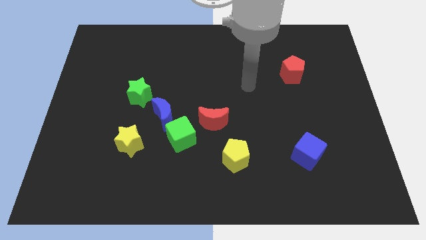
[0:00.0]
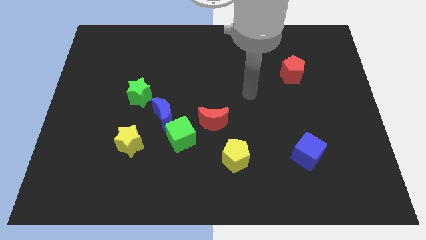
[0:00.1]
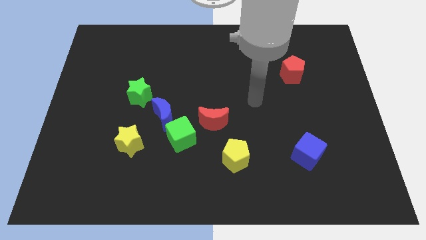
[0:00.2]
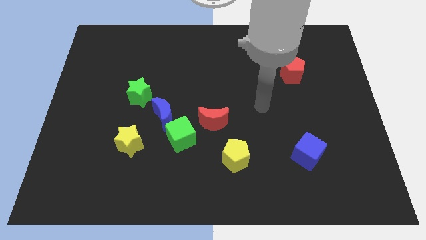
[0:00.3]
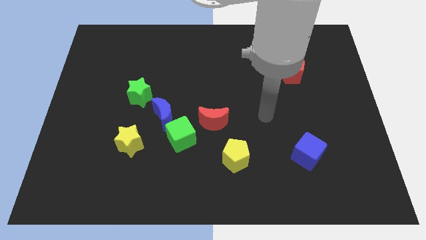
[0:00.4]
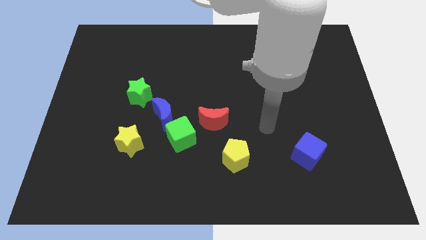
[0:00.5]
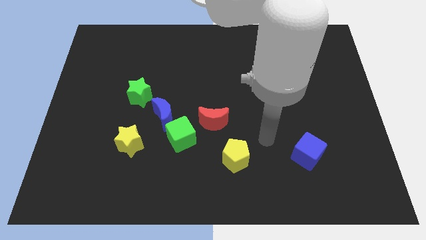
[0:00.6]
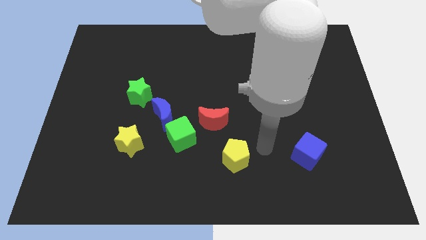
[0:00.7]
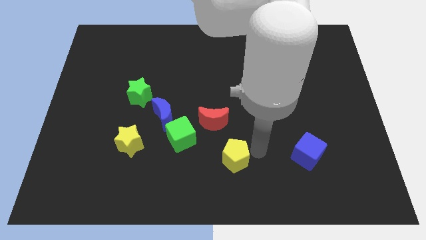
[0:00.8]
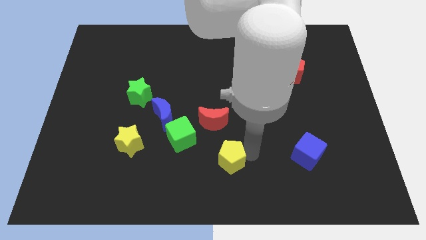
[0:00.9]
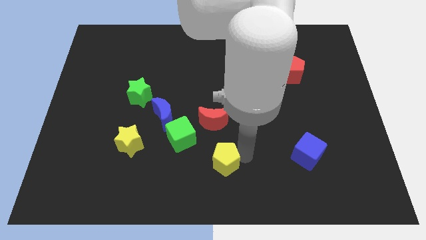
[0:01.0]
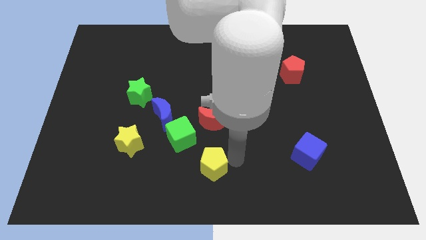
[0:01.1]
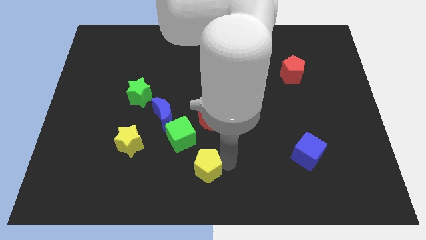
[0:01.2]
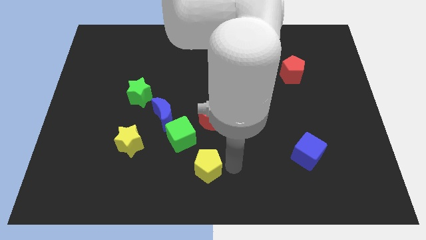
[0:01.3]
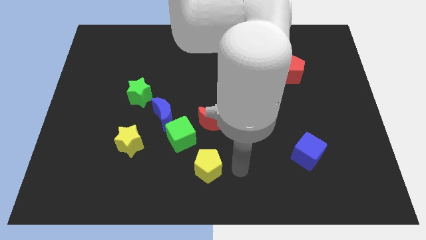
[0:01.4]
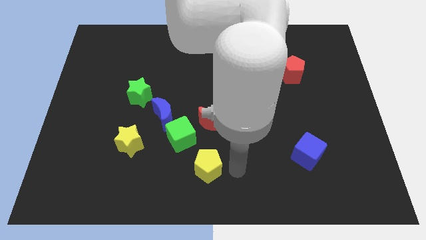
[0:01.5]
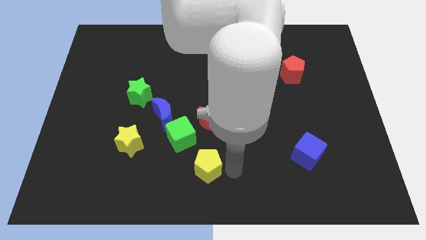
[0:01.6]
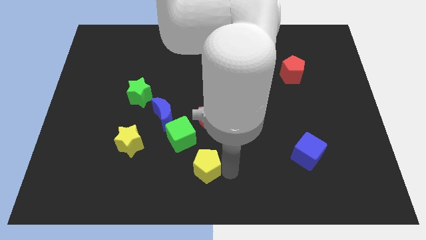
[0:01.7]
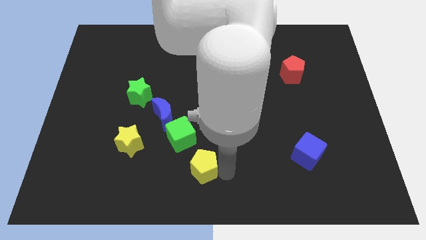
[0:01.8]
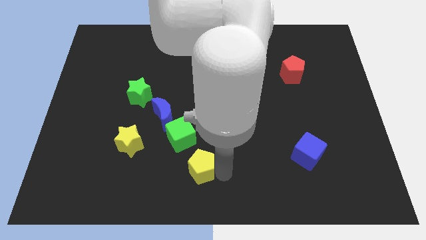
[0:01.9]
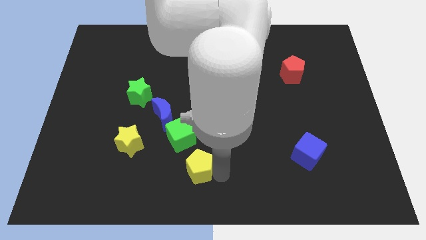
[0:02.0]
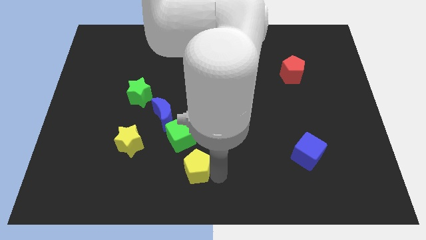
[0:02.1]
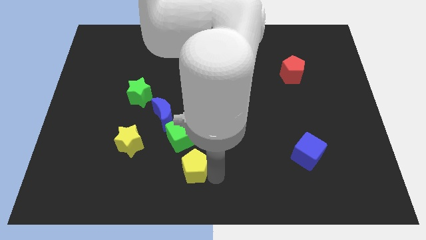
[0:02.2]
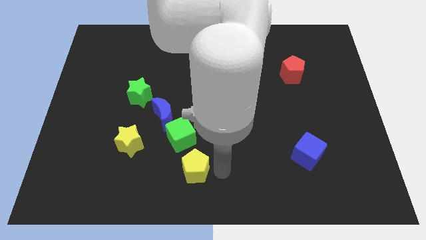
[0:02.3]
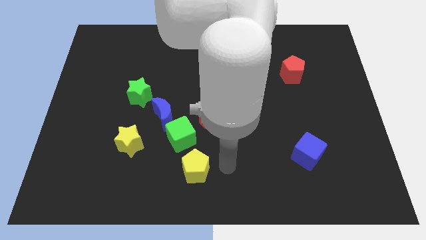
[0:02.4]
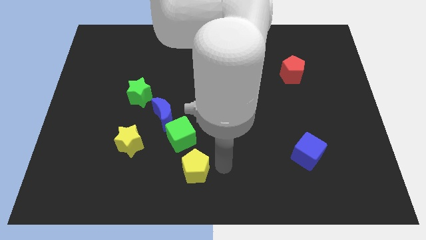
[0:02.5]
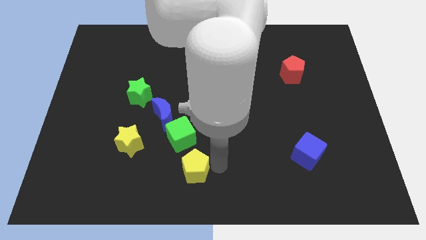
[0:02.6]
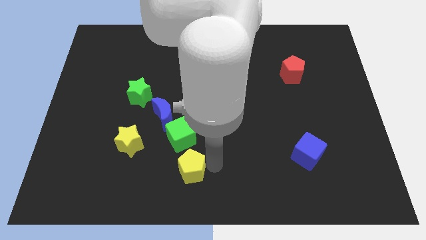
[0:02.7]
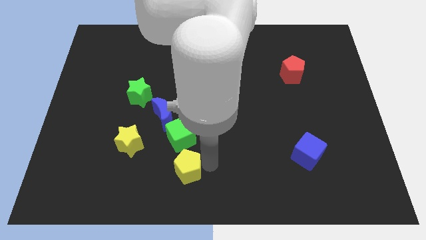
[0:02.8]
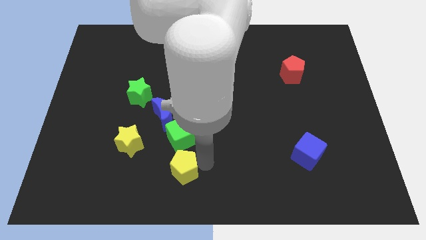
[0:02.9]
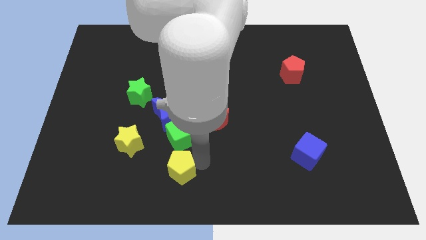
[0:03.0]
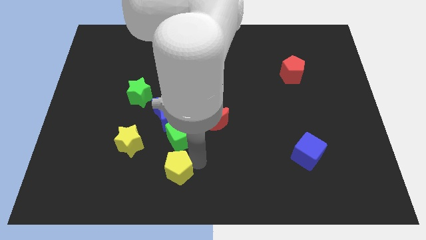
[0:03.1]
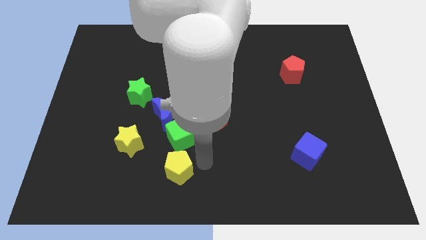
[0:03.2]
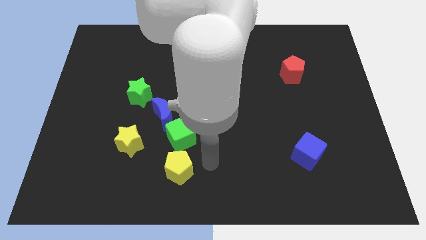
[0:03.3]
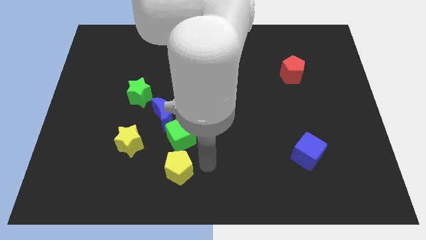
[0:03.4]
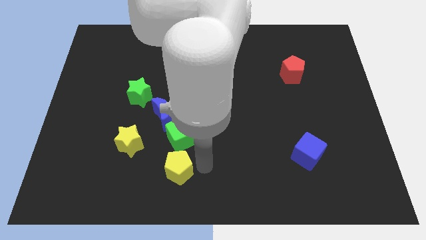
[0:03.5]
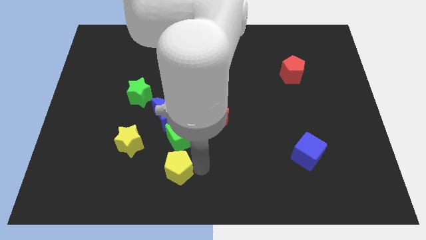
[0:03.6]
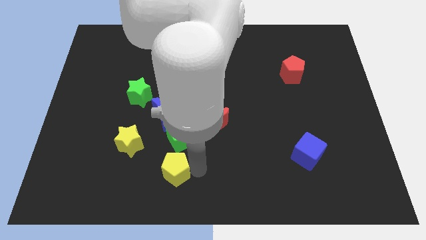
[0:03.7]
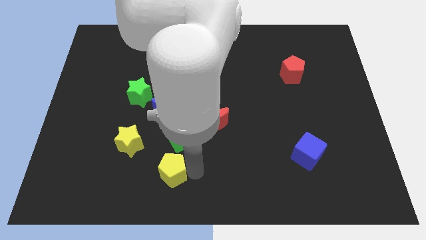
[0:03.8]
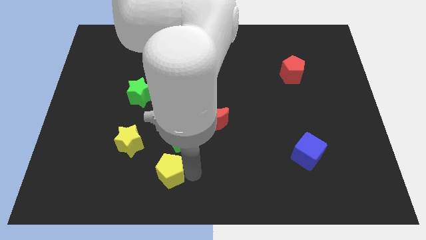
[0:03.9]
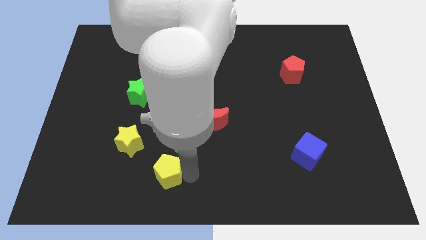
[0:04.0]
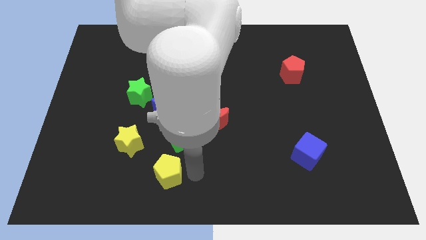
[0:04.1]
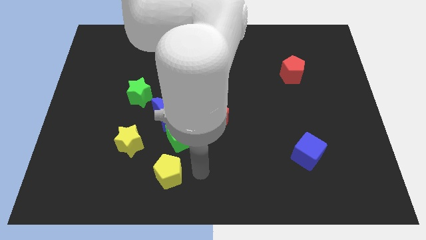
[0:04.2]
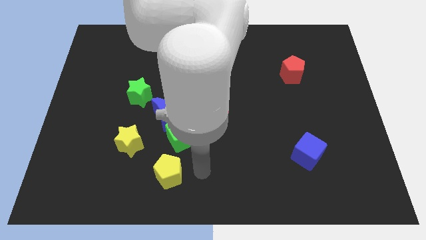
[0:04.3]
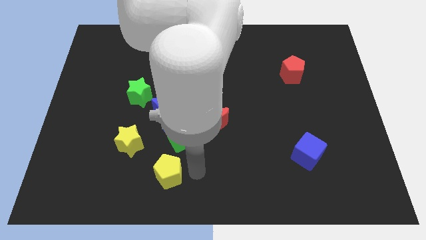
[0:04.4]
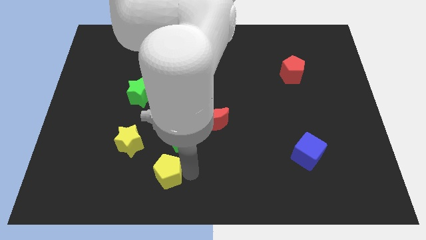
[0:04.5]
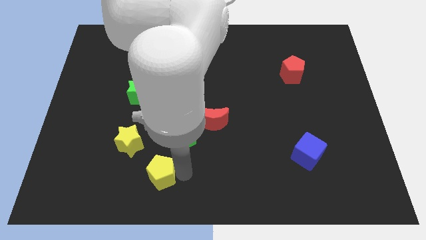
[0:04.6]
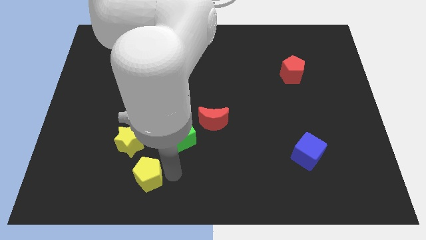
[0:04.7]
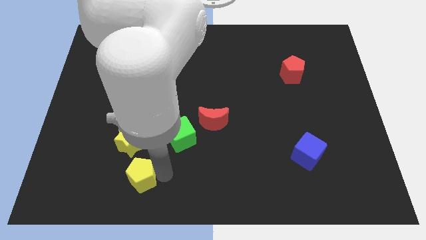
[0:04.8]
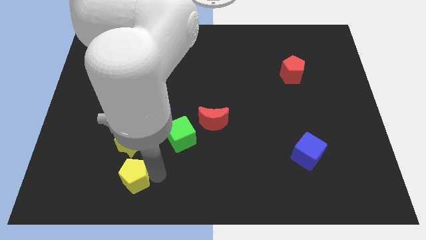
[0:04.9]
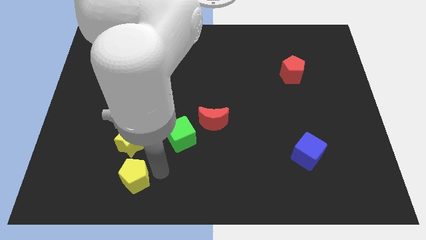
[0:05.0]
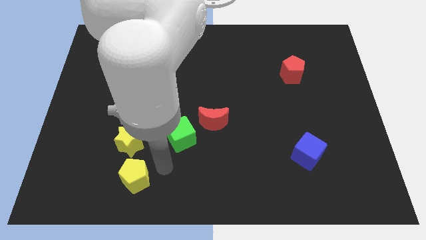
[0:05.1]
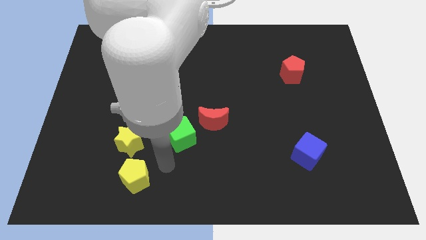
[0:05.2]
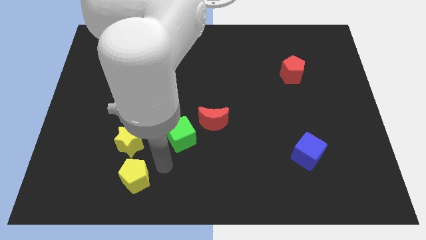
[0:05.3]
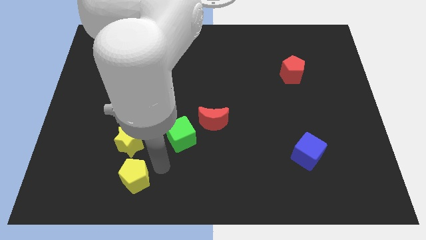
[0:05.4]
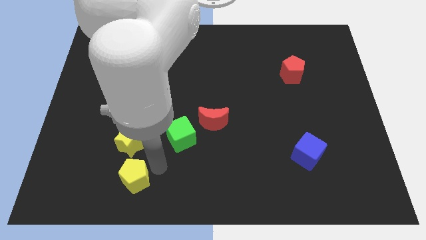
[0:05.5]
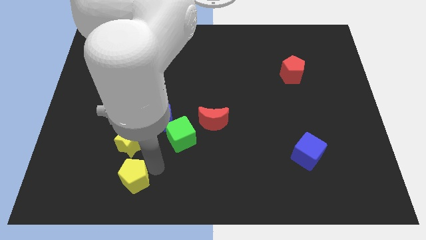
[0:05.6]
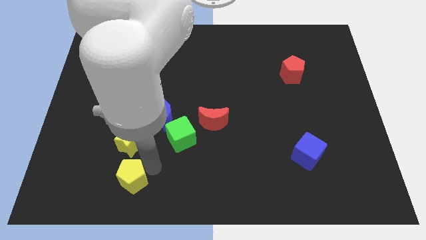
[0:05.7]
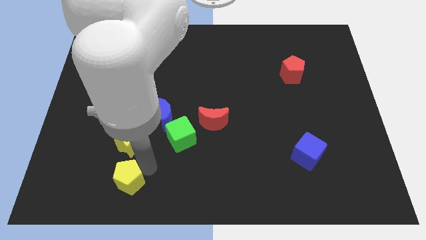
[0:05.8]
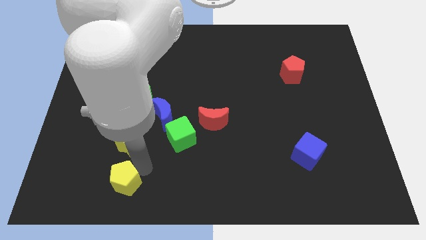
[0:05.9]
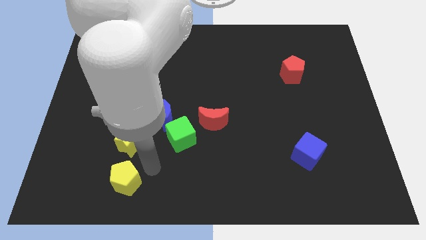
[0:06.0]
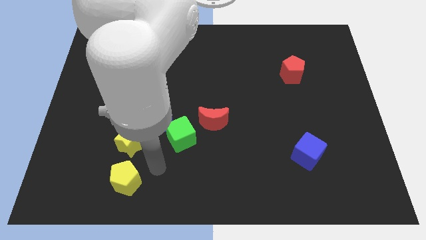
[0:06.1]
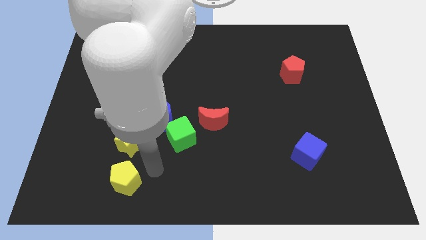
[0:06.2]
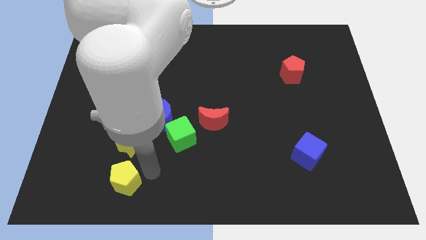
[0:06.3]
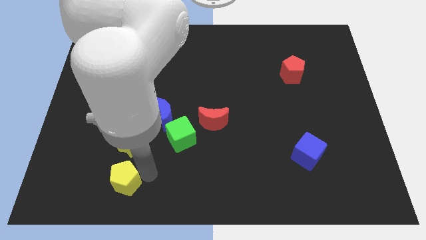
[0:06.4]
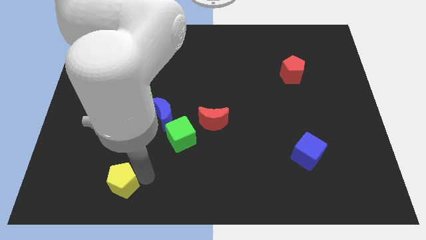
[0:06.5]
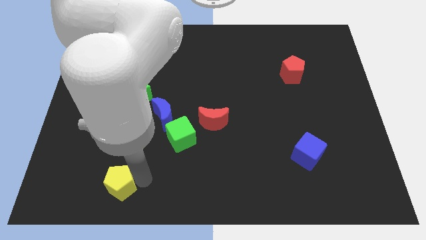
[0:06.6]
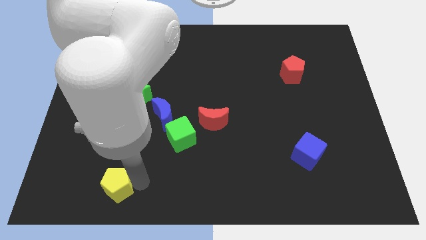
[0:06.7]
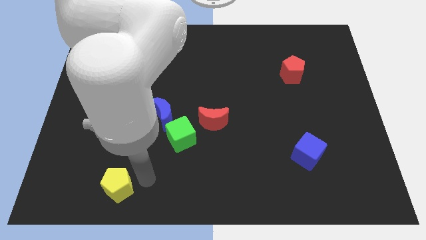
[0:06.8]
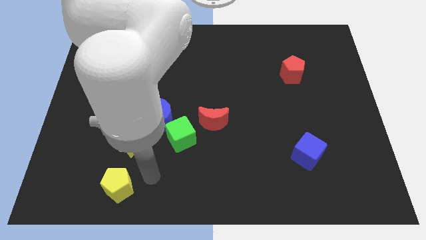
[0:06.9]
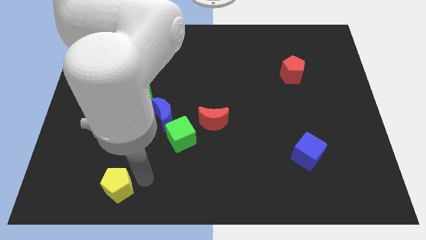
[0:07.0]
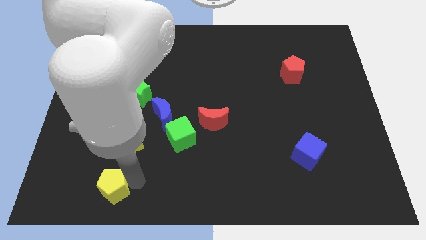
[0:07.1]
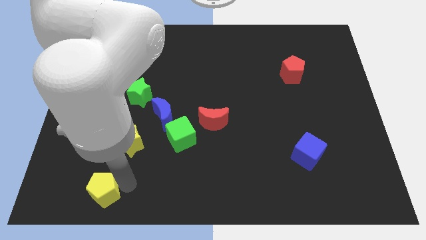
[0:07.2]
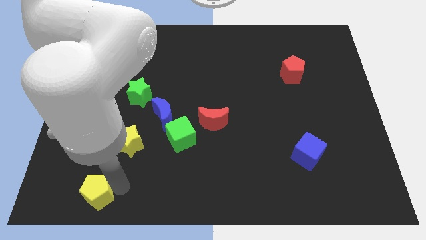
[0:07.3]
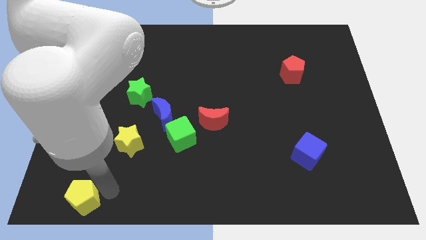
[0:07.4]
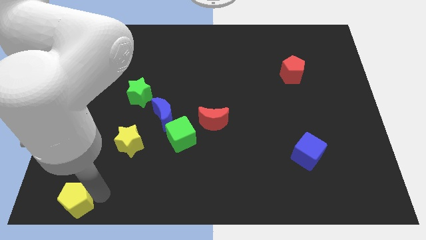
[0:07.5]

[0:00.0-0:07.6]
put the yellow pentagon to the bottom left of the board
